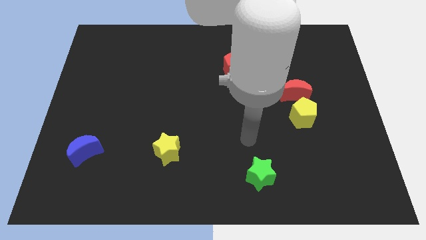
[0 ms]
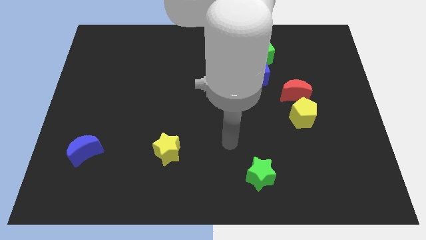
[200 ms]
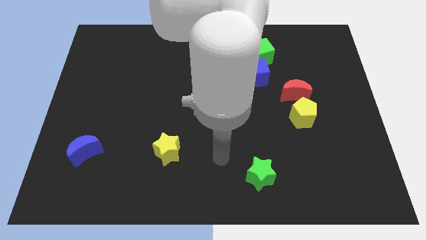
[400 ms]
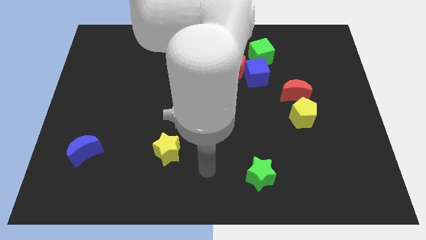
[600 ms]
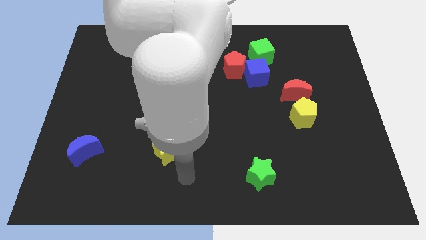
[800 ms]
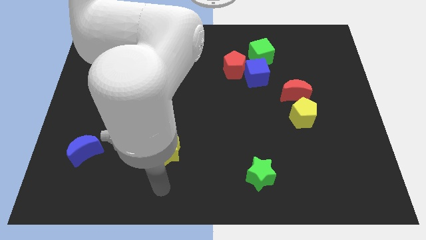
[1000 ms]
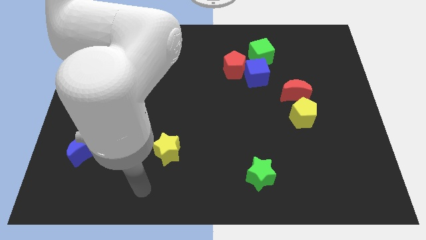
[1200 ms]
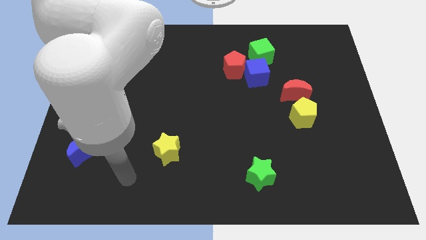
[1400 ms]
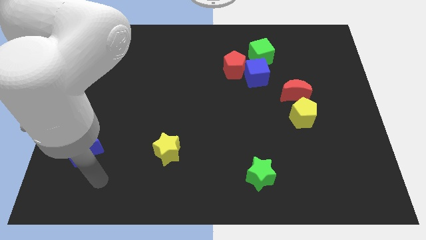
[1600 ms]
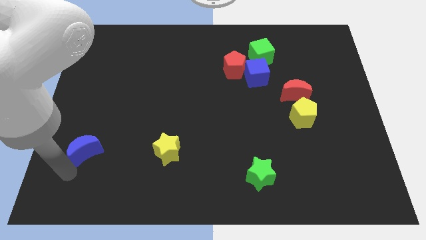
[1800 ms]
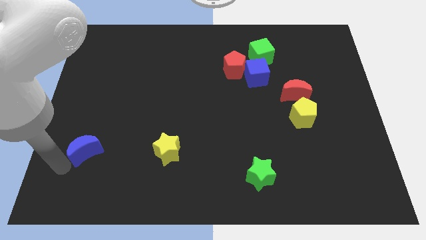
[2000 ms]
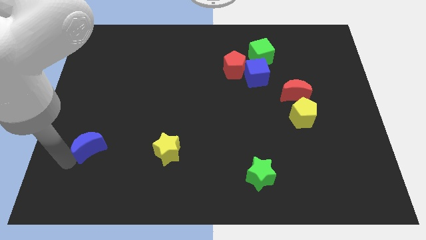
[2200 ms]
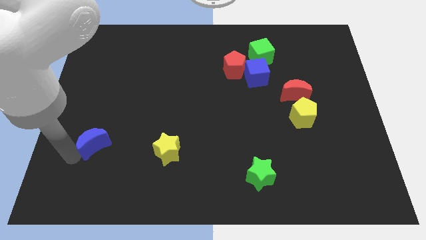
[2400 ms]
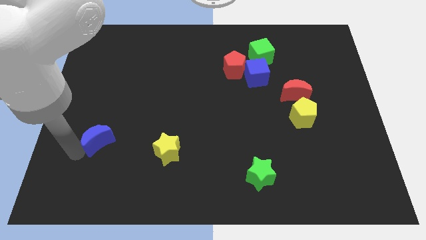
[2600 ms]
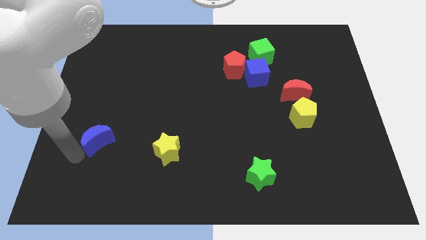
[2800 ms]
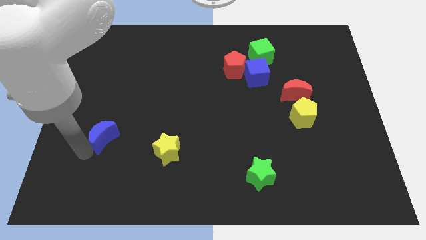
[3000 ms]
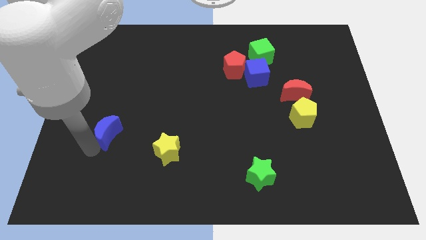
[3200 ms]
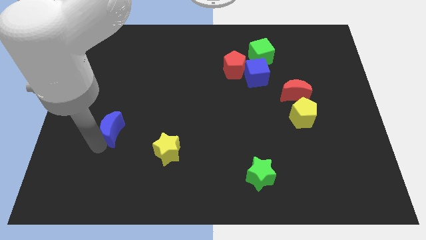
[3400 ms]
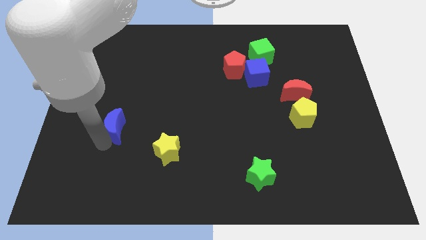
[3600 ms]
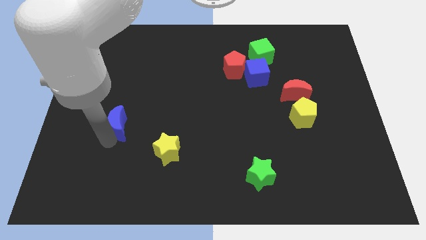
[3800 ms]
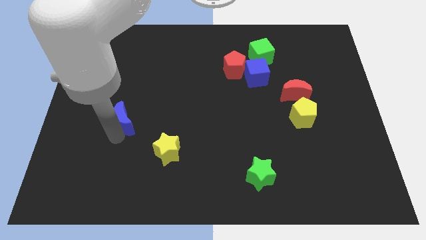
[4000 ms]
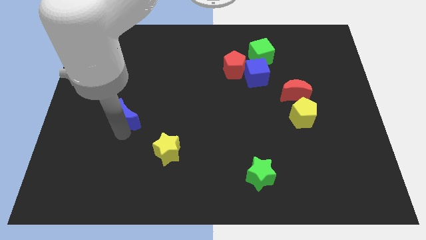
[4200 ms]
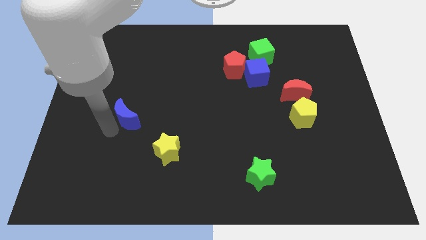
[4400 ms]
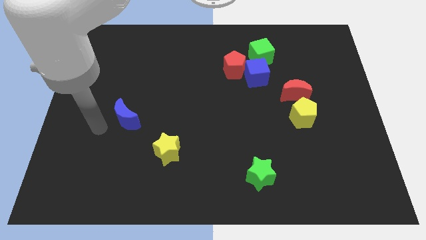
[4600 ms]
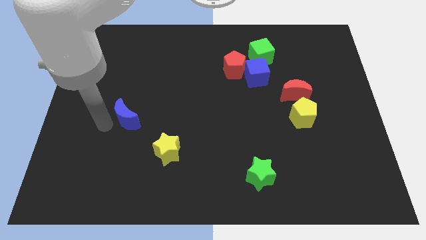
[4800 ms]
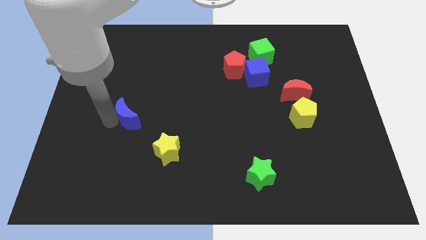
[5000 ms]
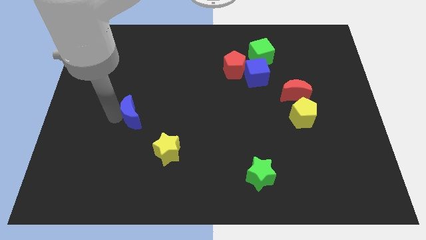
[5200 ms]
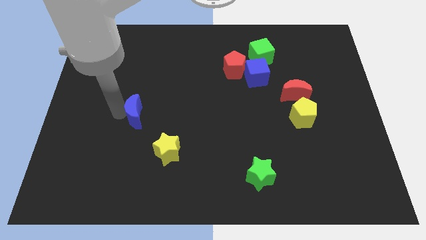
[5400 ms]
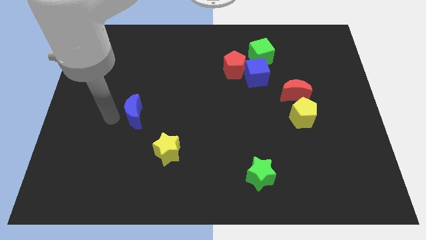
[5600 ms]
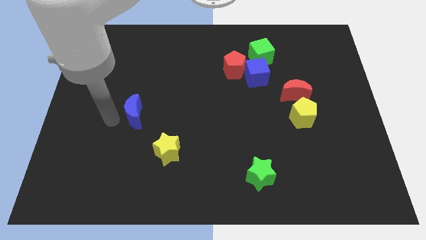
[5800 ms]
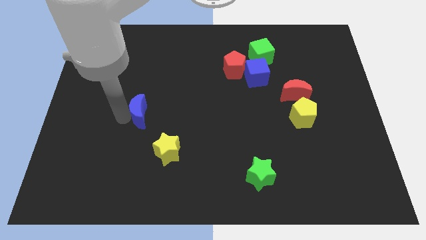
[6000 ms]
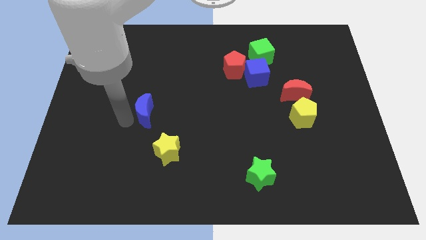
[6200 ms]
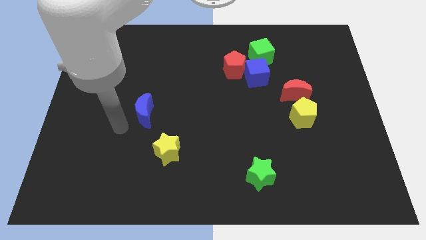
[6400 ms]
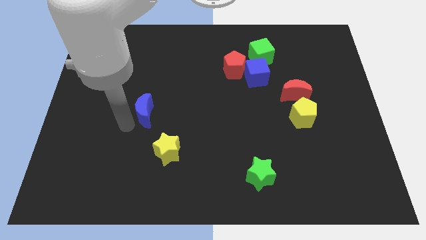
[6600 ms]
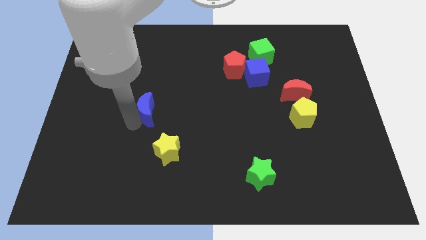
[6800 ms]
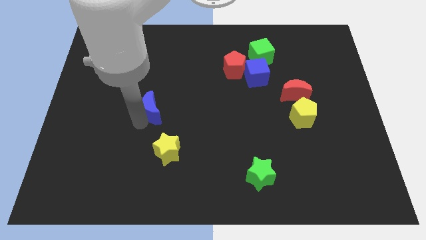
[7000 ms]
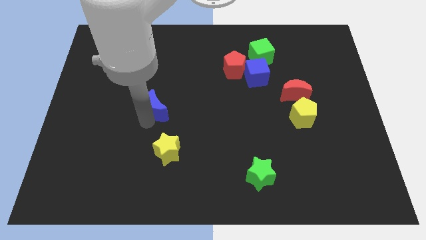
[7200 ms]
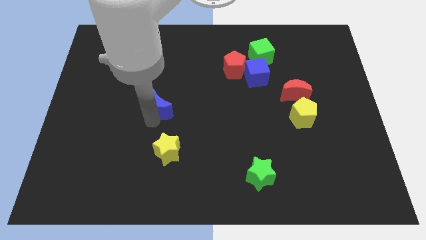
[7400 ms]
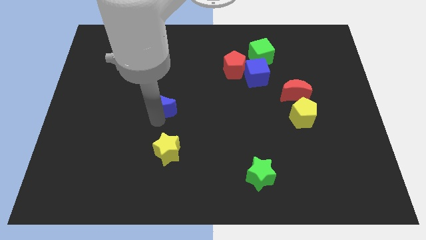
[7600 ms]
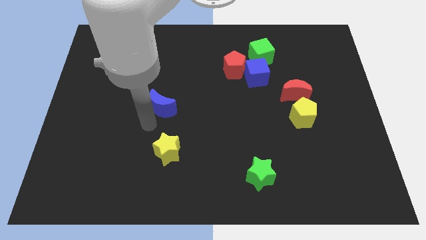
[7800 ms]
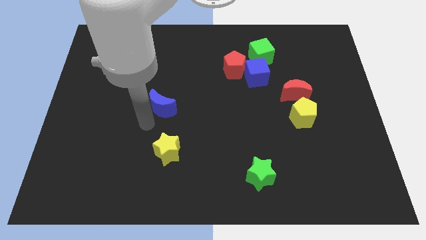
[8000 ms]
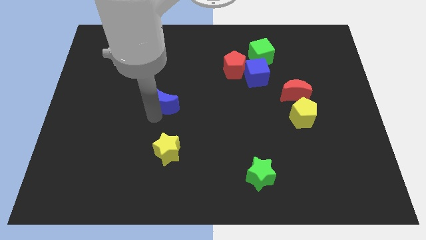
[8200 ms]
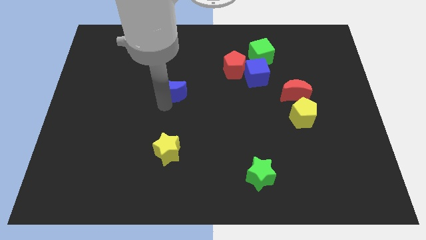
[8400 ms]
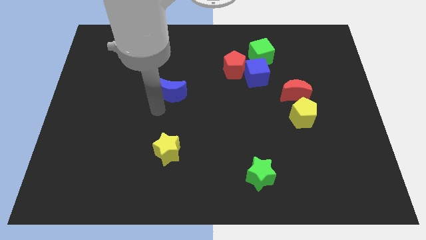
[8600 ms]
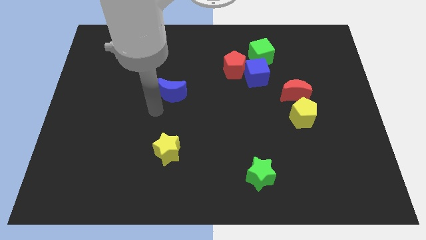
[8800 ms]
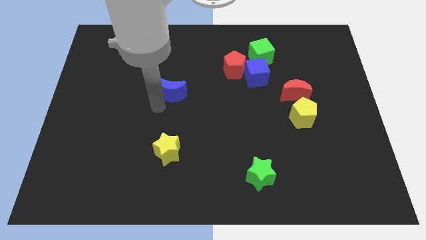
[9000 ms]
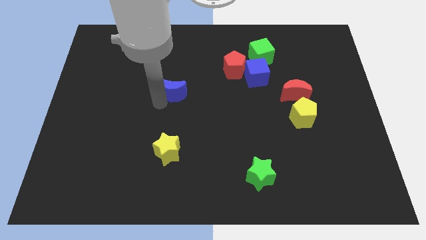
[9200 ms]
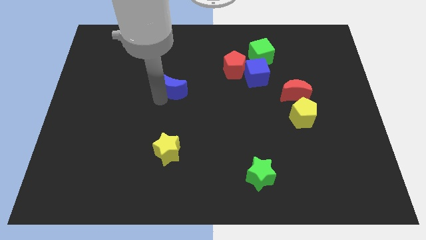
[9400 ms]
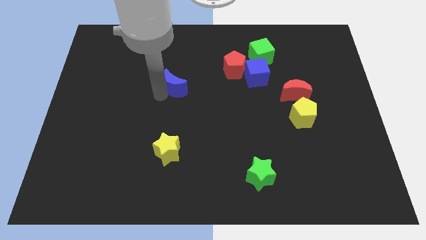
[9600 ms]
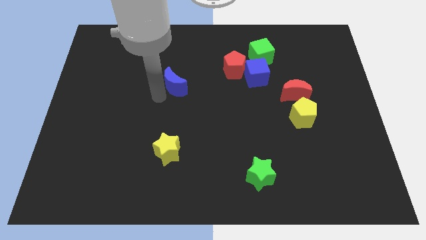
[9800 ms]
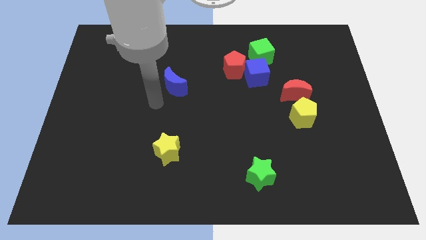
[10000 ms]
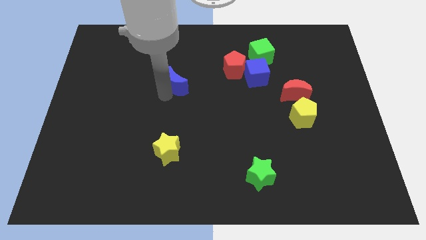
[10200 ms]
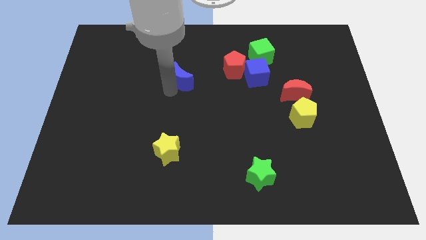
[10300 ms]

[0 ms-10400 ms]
put the blue moon to the left of the red pentagon

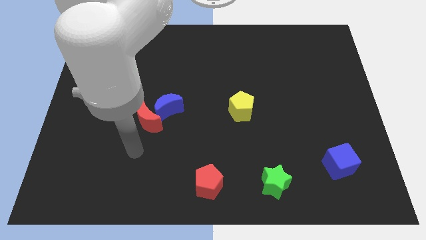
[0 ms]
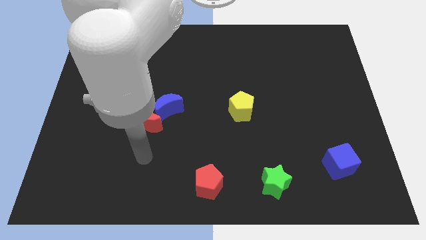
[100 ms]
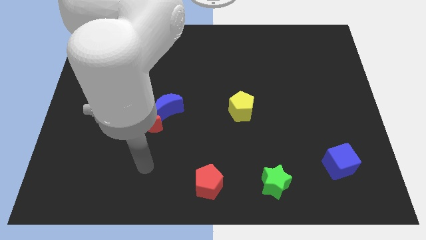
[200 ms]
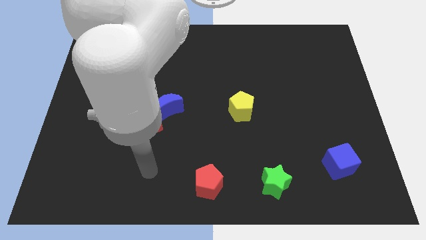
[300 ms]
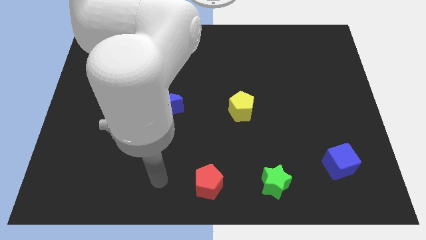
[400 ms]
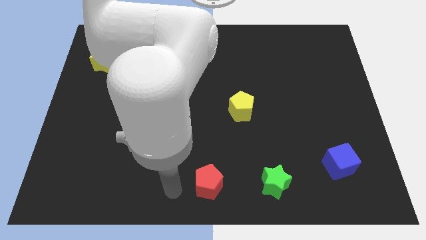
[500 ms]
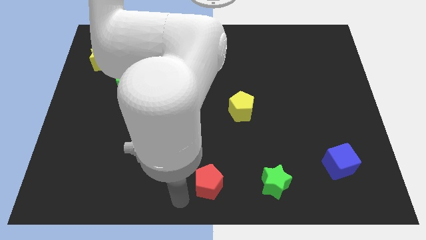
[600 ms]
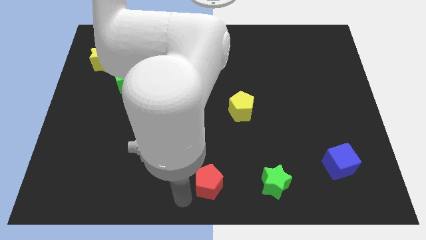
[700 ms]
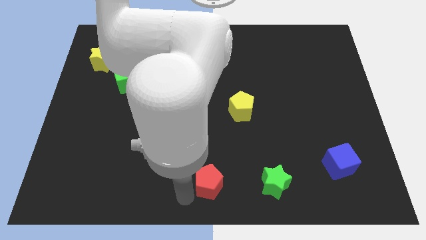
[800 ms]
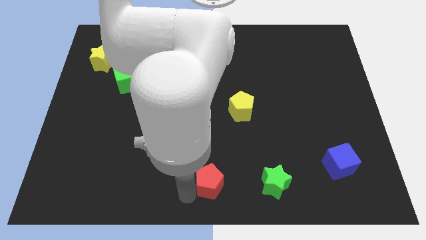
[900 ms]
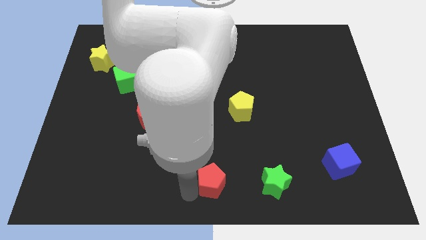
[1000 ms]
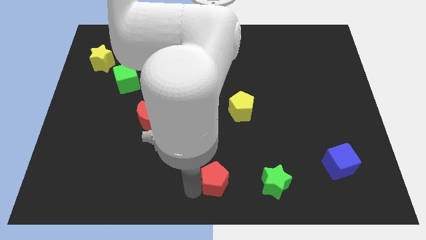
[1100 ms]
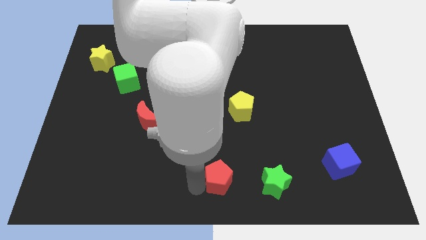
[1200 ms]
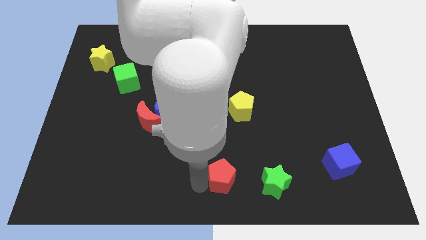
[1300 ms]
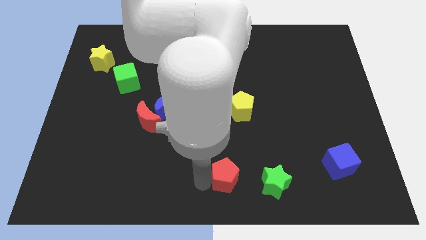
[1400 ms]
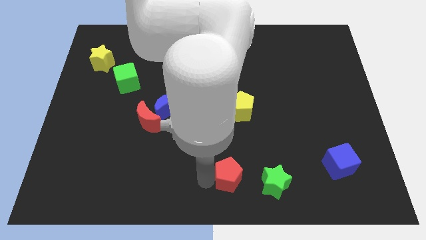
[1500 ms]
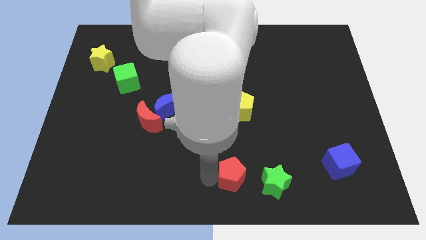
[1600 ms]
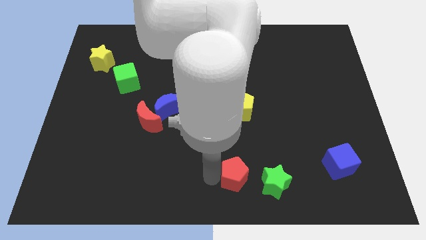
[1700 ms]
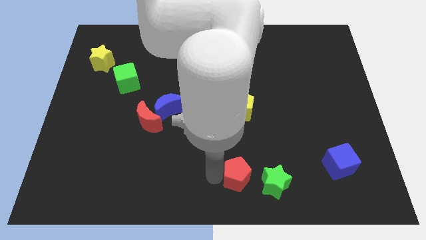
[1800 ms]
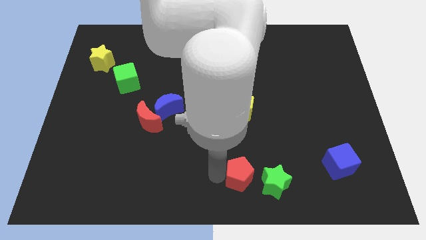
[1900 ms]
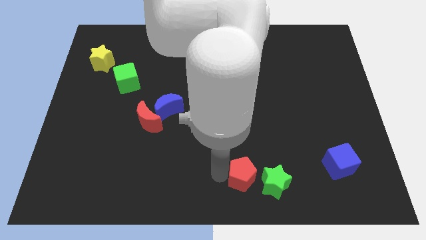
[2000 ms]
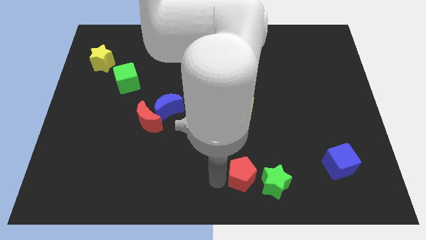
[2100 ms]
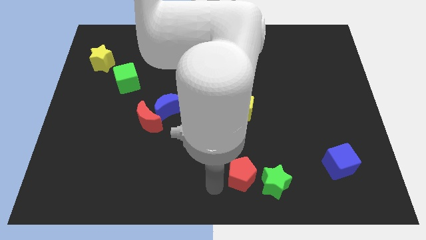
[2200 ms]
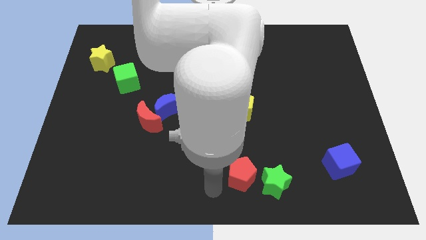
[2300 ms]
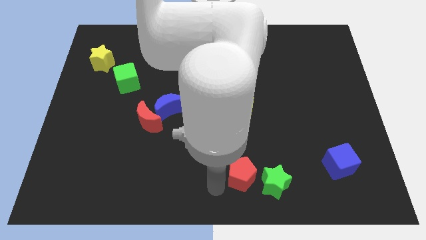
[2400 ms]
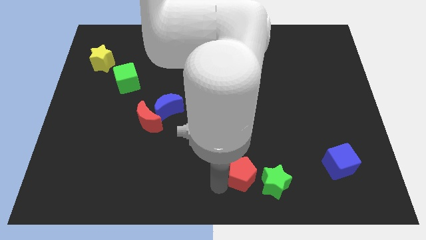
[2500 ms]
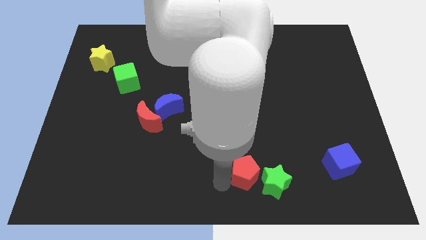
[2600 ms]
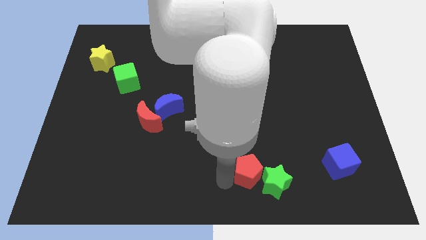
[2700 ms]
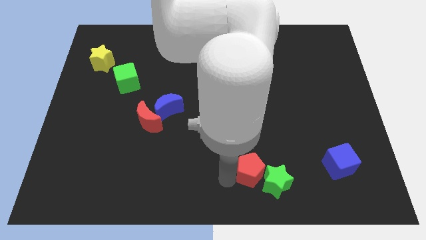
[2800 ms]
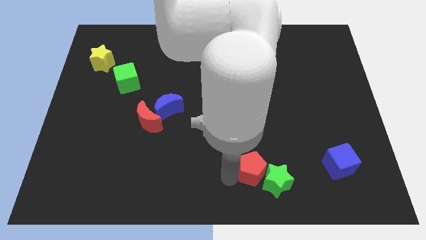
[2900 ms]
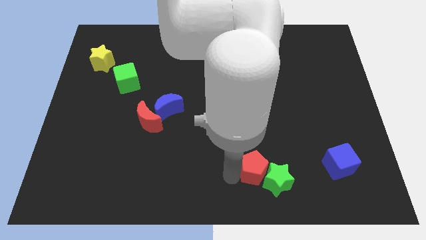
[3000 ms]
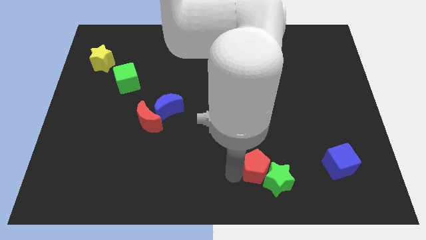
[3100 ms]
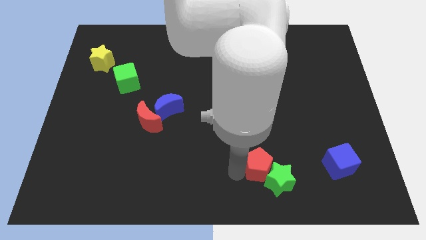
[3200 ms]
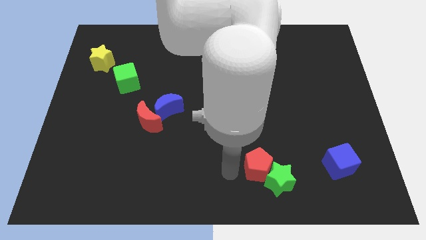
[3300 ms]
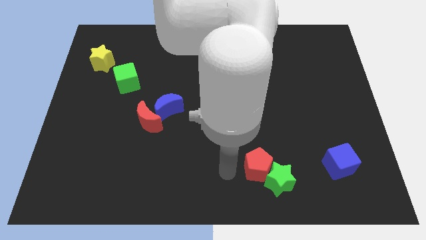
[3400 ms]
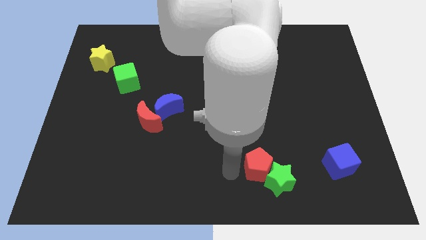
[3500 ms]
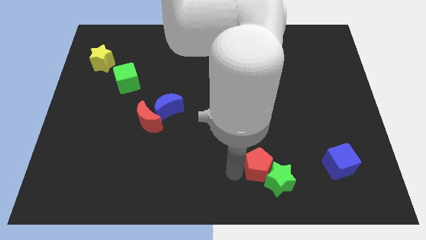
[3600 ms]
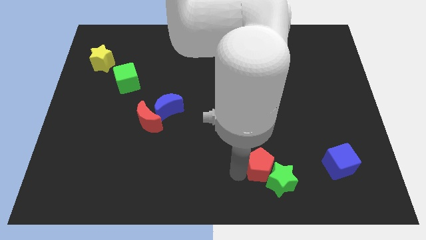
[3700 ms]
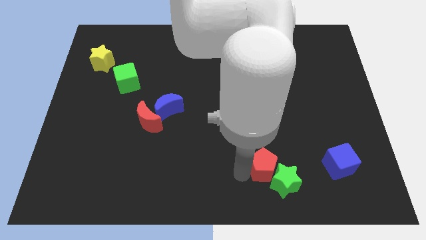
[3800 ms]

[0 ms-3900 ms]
slide the red pentagon to the left side of the blue cube
